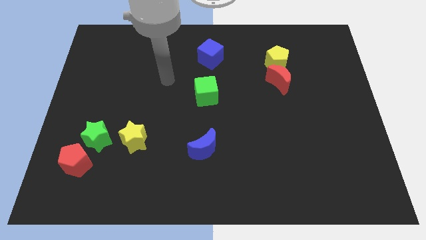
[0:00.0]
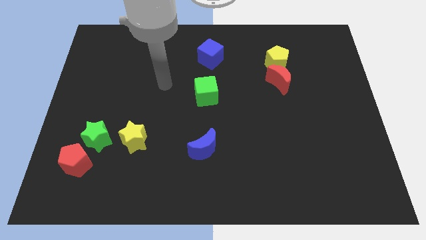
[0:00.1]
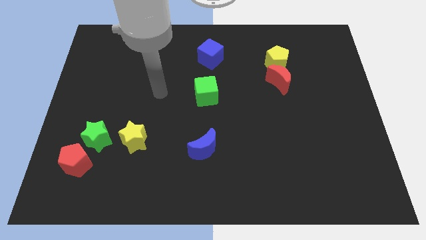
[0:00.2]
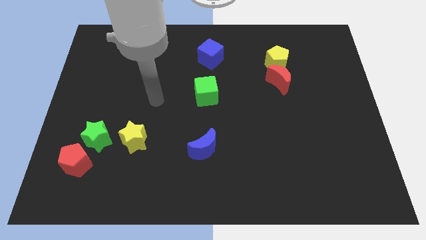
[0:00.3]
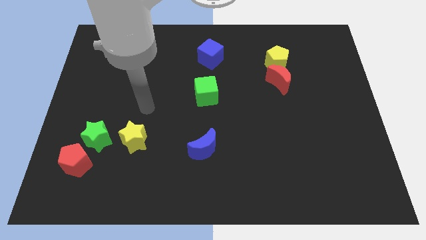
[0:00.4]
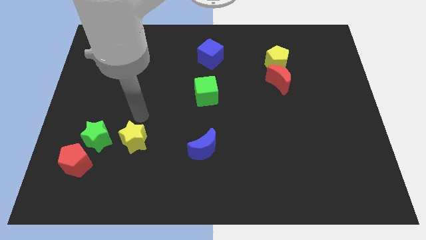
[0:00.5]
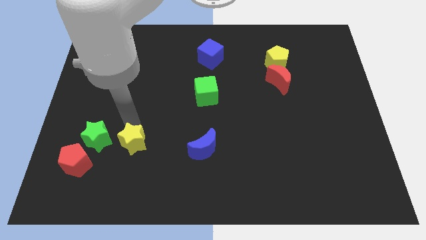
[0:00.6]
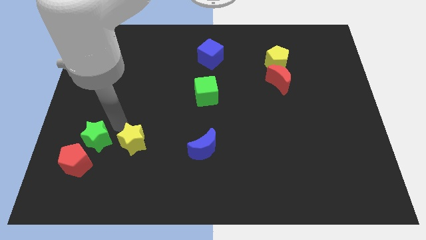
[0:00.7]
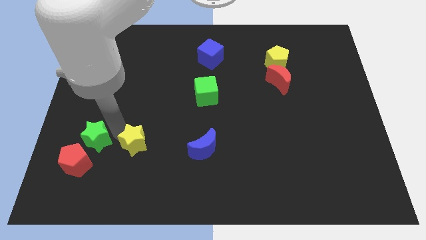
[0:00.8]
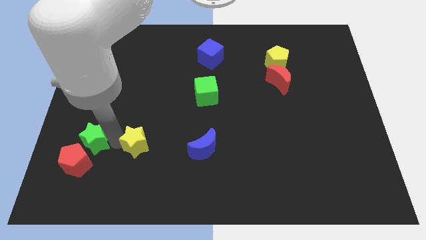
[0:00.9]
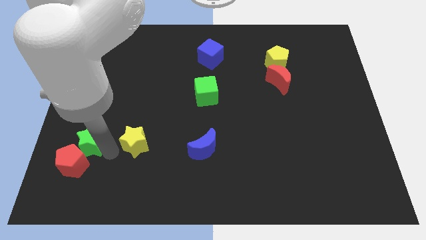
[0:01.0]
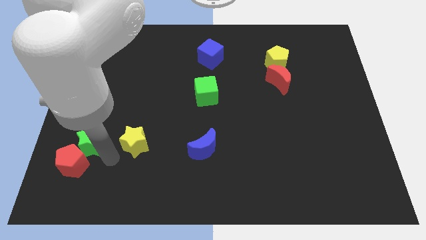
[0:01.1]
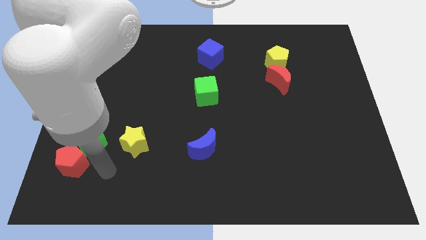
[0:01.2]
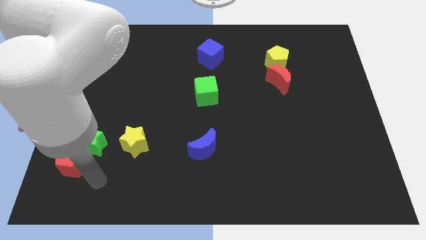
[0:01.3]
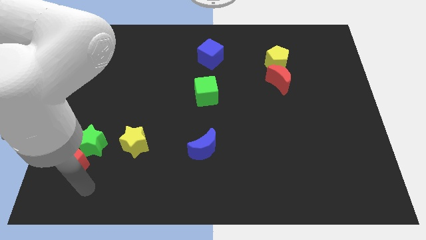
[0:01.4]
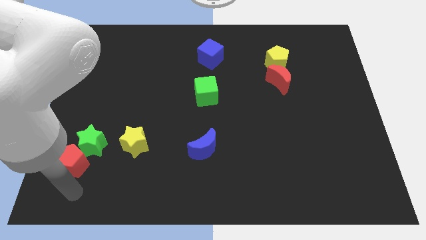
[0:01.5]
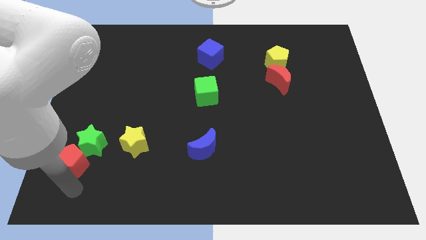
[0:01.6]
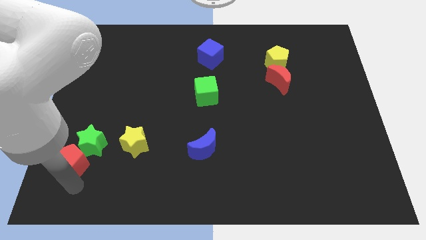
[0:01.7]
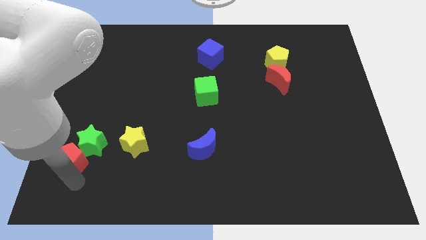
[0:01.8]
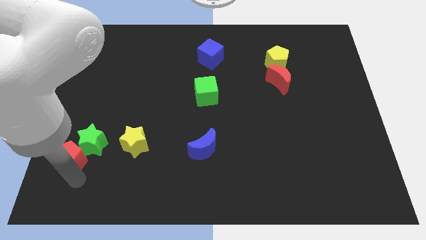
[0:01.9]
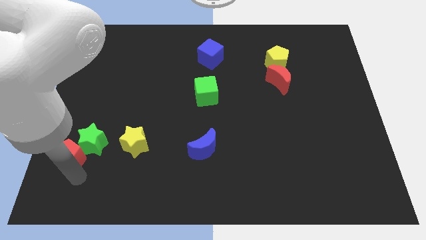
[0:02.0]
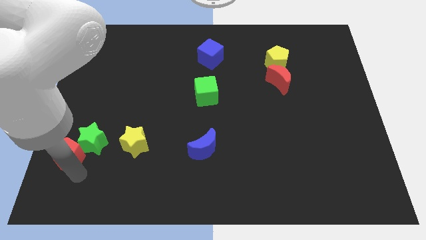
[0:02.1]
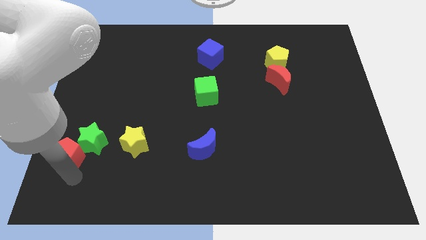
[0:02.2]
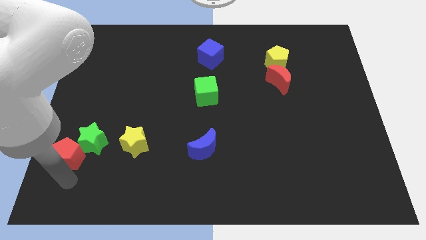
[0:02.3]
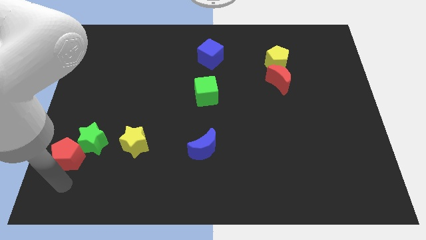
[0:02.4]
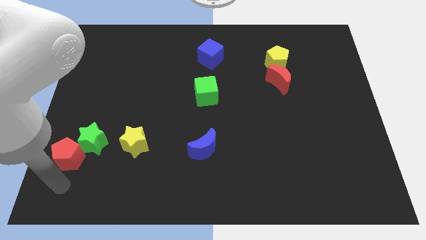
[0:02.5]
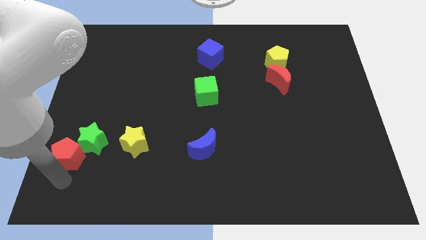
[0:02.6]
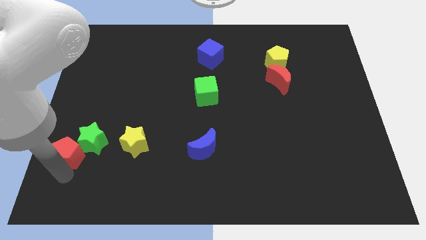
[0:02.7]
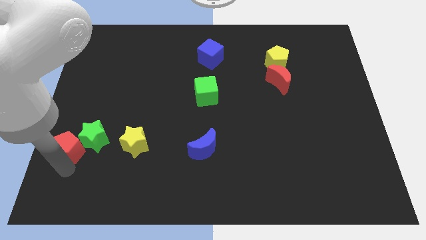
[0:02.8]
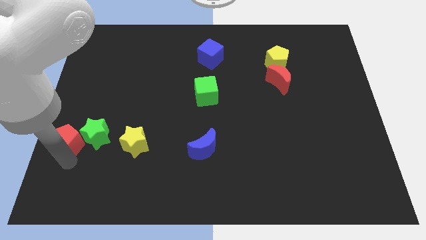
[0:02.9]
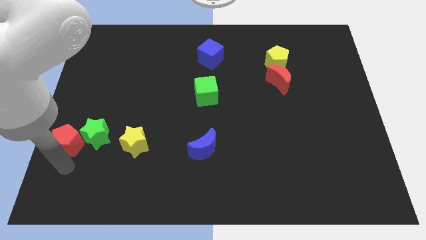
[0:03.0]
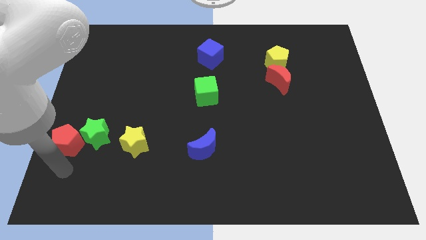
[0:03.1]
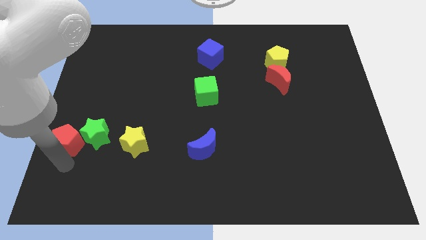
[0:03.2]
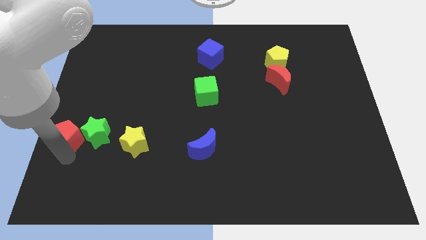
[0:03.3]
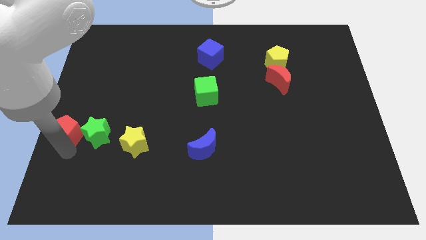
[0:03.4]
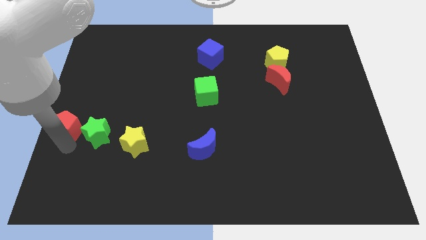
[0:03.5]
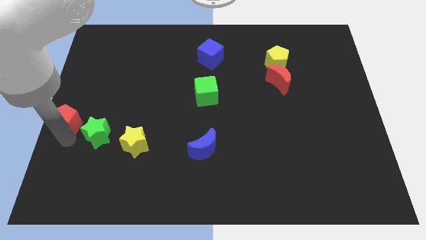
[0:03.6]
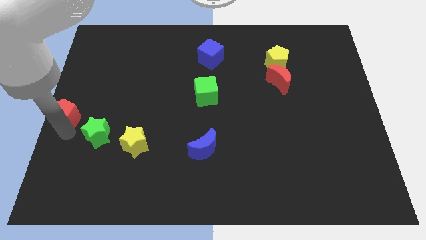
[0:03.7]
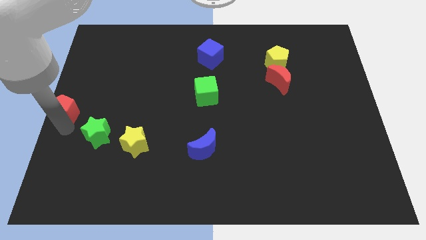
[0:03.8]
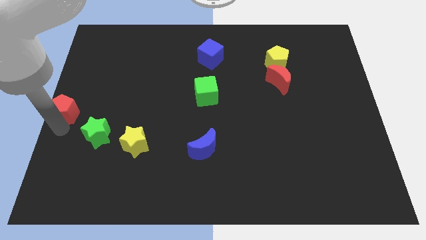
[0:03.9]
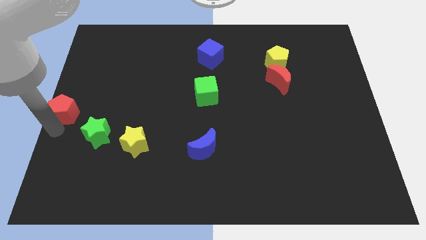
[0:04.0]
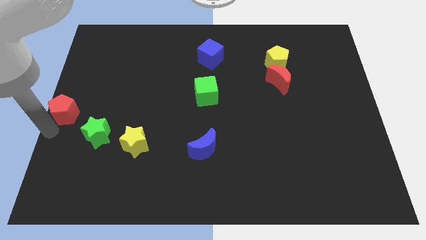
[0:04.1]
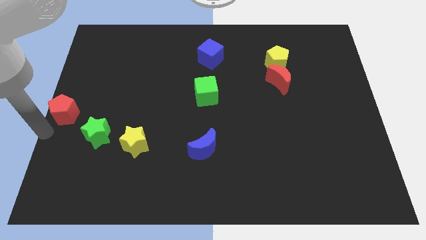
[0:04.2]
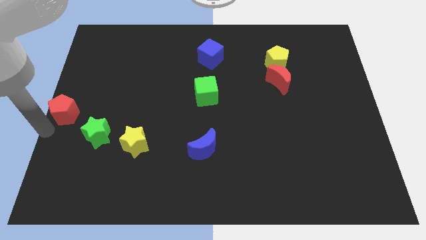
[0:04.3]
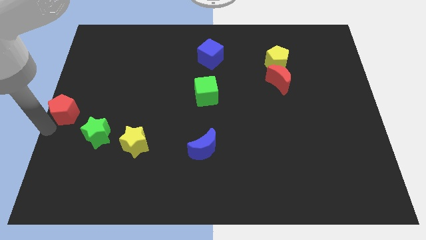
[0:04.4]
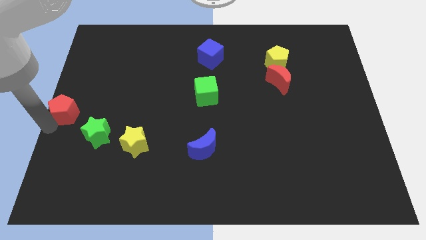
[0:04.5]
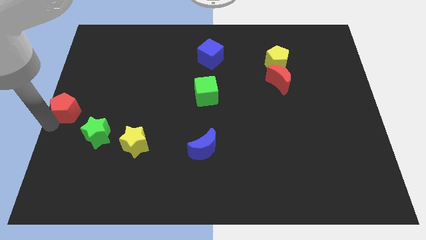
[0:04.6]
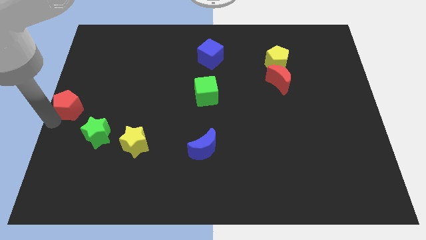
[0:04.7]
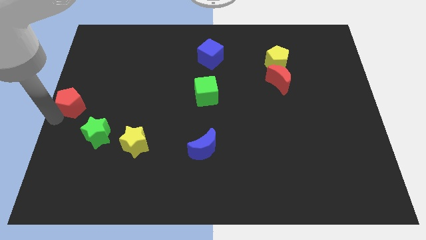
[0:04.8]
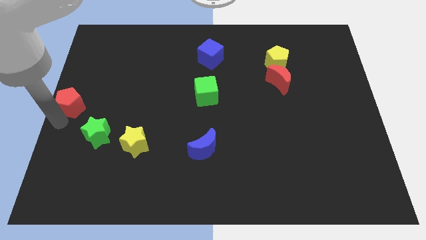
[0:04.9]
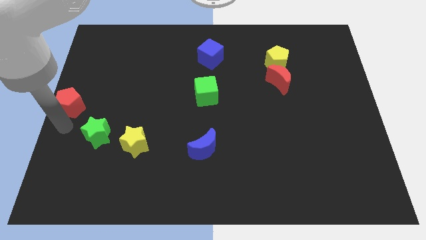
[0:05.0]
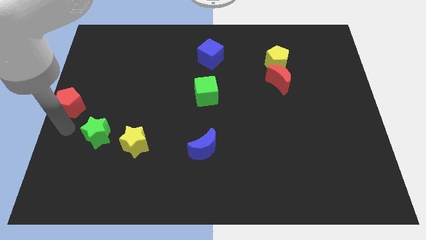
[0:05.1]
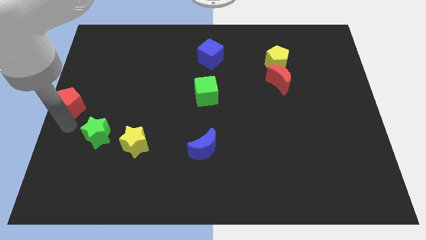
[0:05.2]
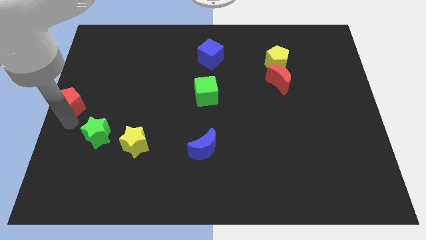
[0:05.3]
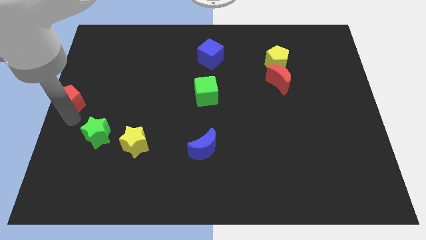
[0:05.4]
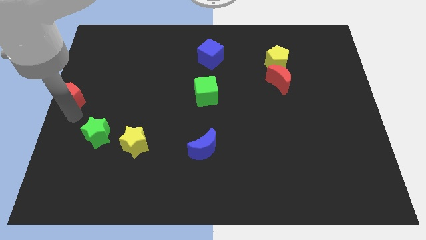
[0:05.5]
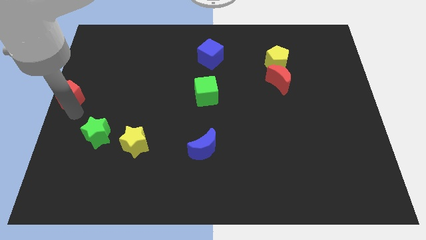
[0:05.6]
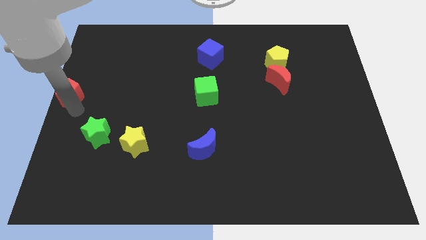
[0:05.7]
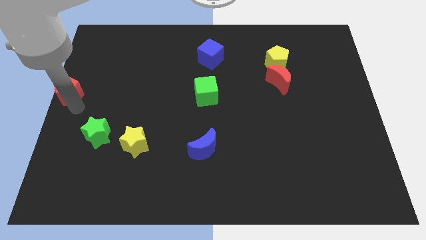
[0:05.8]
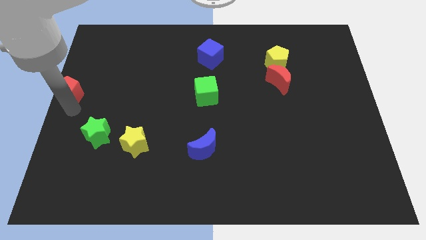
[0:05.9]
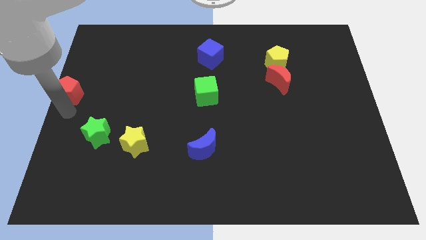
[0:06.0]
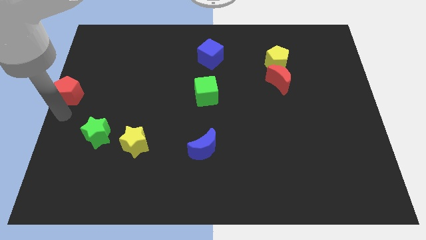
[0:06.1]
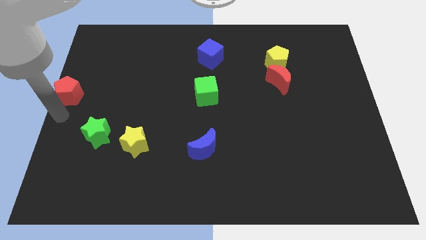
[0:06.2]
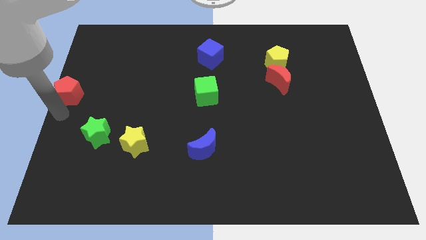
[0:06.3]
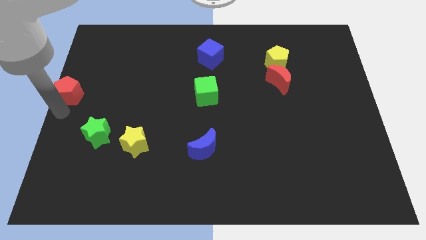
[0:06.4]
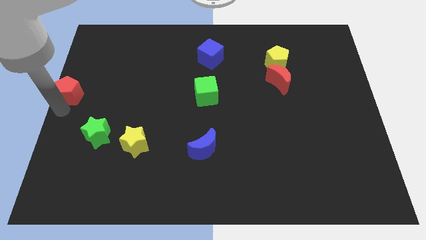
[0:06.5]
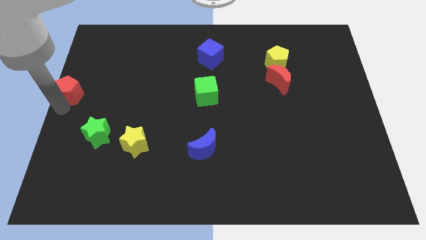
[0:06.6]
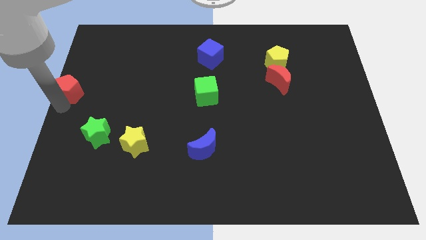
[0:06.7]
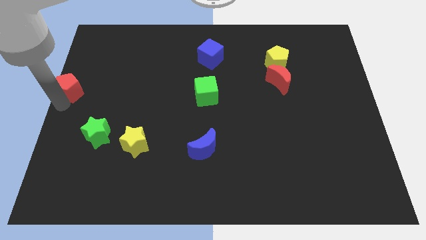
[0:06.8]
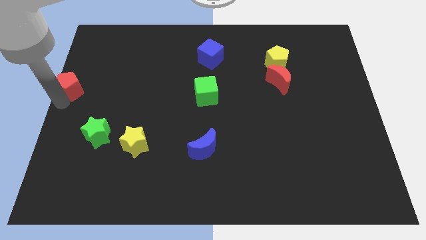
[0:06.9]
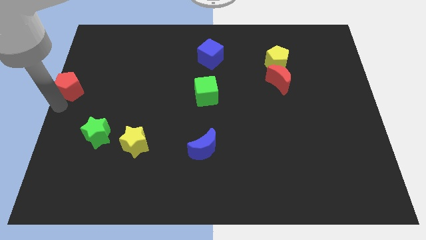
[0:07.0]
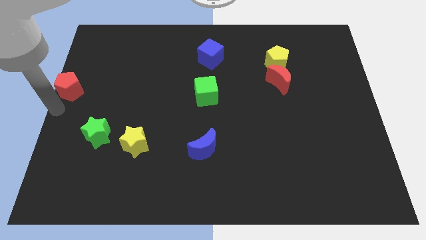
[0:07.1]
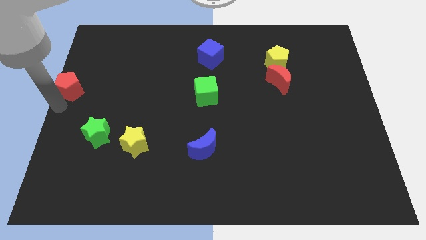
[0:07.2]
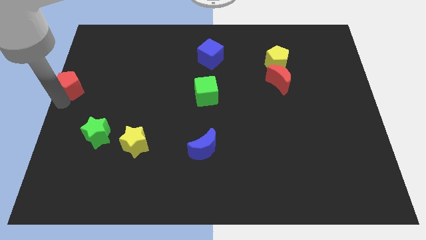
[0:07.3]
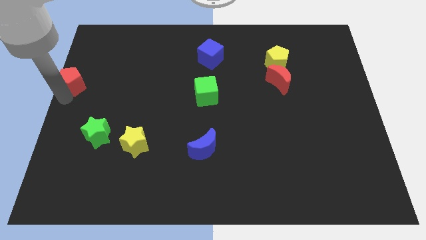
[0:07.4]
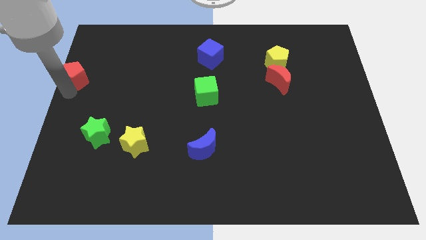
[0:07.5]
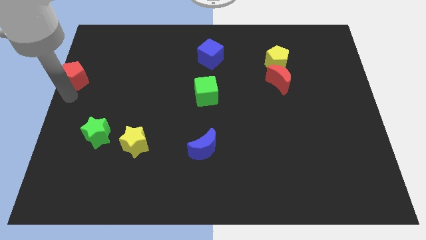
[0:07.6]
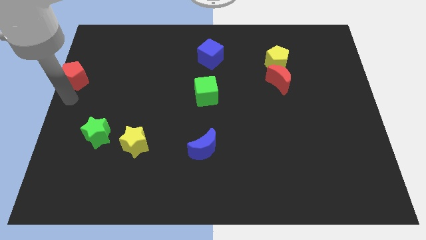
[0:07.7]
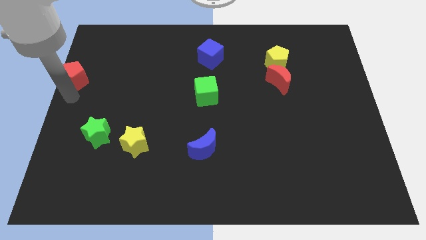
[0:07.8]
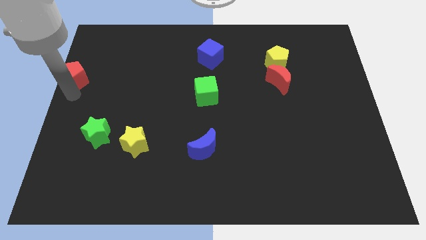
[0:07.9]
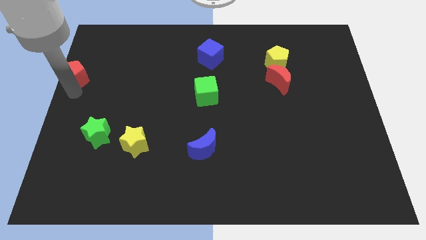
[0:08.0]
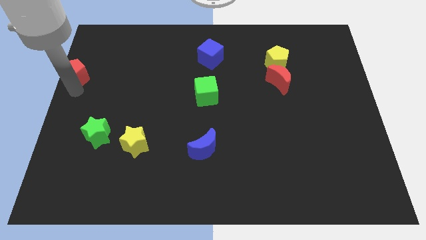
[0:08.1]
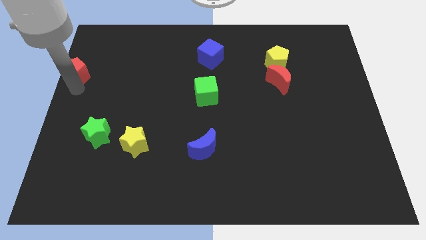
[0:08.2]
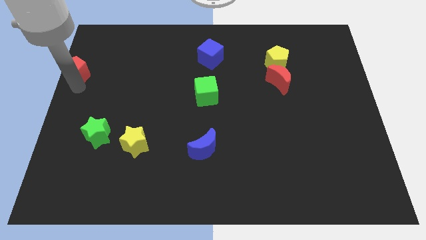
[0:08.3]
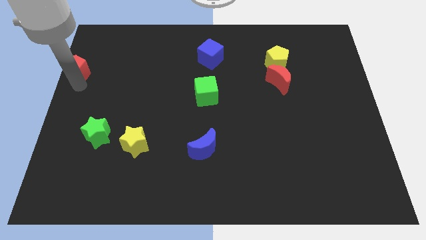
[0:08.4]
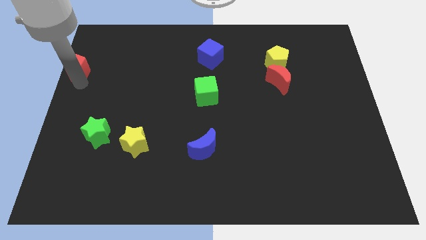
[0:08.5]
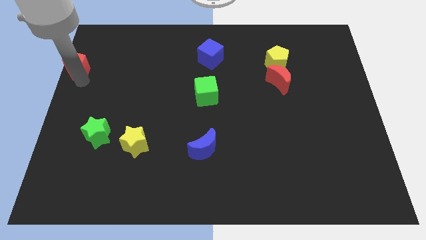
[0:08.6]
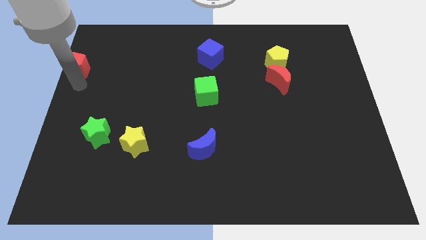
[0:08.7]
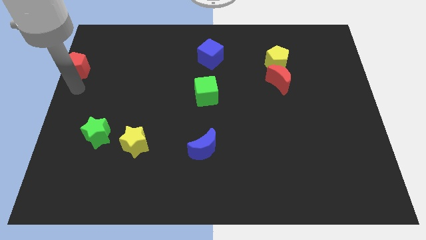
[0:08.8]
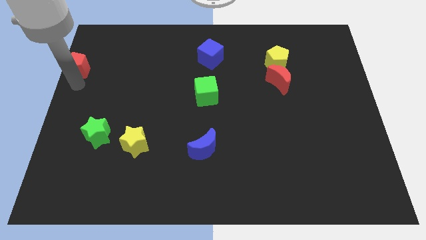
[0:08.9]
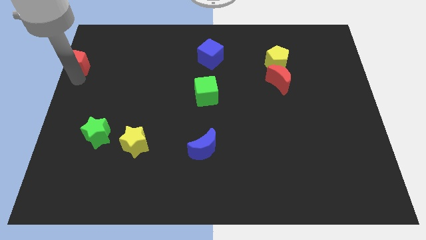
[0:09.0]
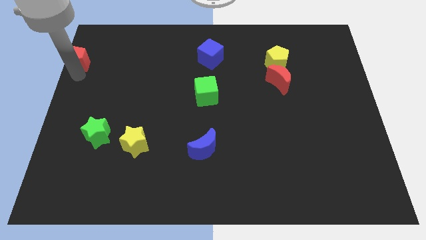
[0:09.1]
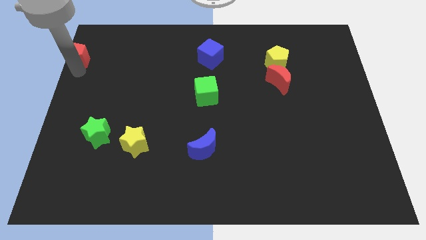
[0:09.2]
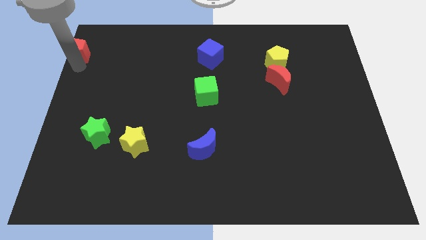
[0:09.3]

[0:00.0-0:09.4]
slide the red pentagon to the top left corner
